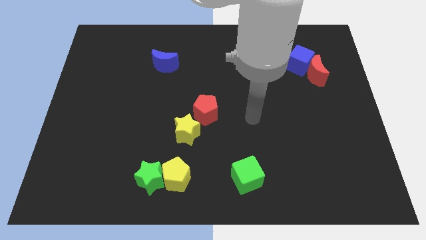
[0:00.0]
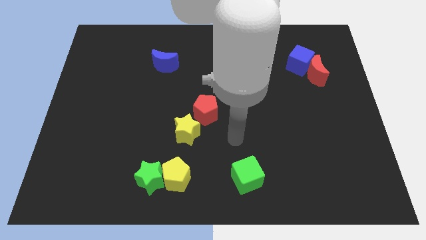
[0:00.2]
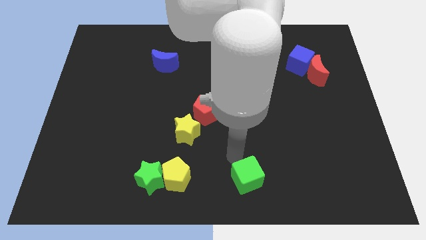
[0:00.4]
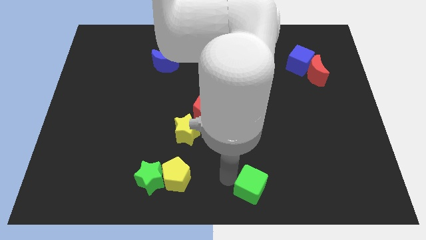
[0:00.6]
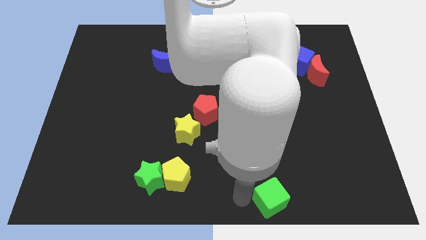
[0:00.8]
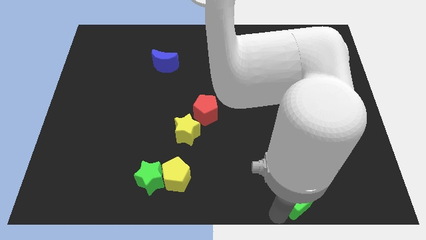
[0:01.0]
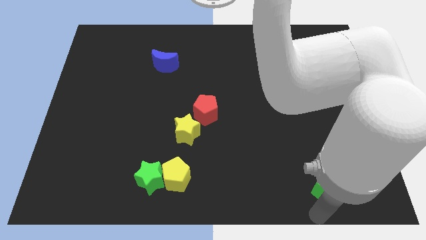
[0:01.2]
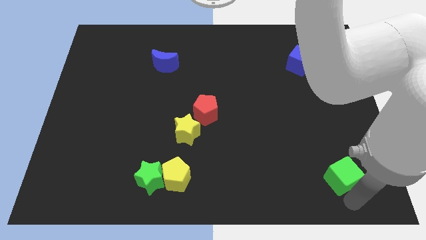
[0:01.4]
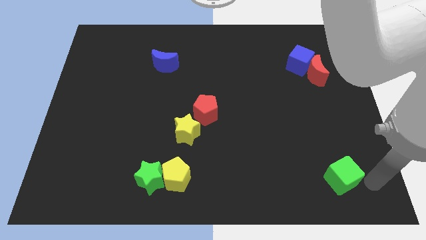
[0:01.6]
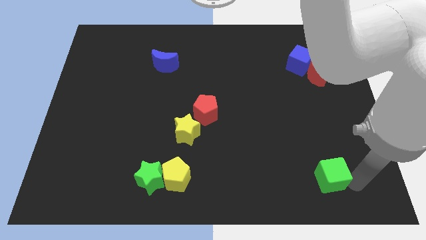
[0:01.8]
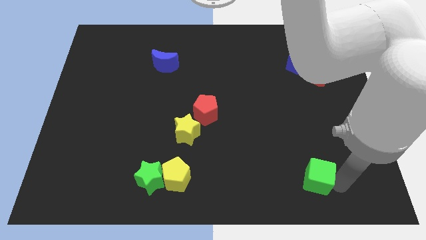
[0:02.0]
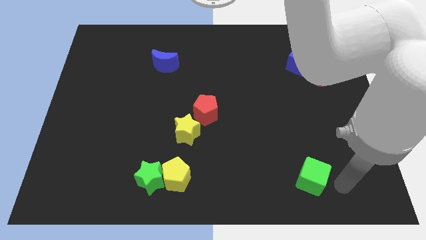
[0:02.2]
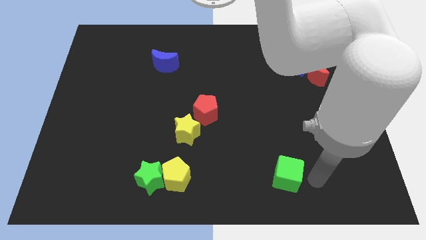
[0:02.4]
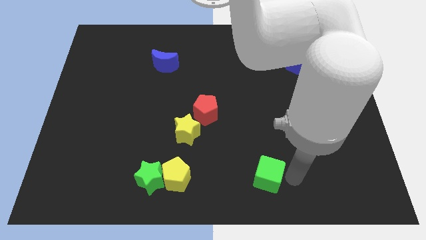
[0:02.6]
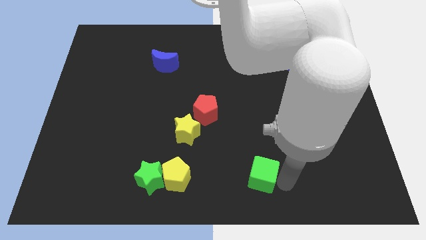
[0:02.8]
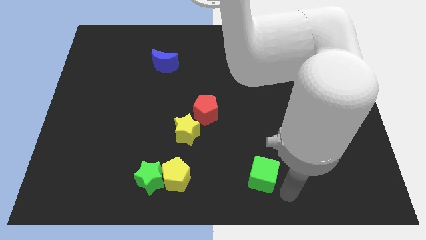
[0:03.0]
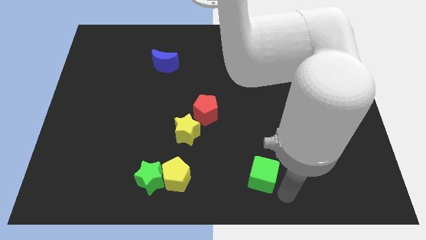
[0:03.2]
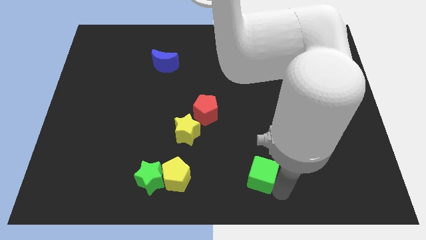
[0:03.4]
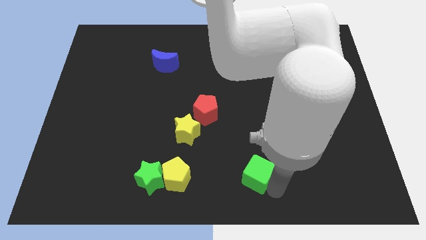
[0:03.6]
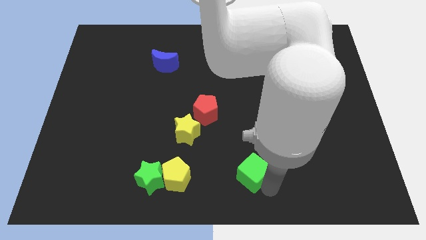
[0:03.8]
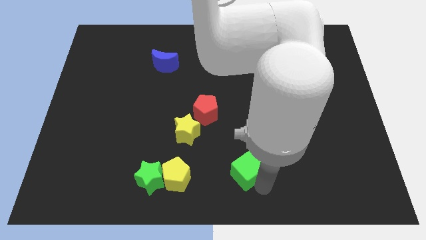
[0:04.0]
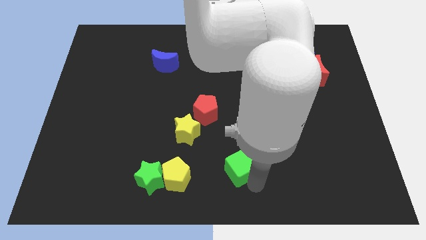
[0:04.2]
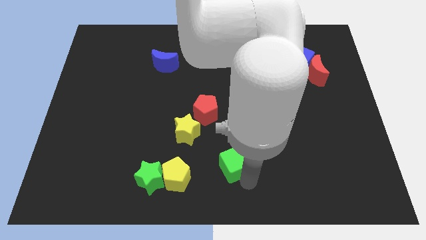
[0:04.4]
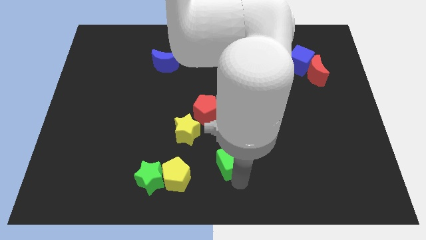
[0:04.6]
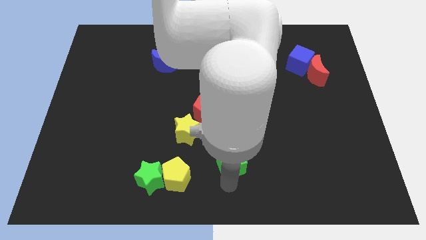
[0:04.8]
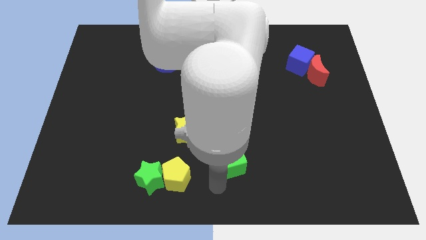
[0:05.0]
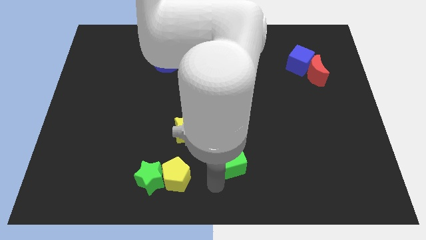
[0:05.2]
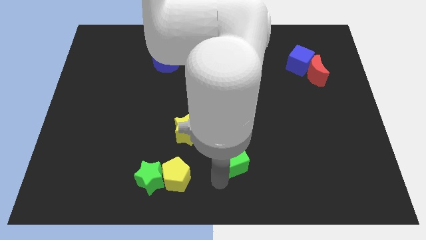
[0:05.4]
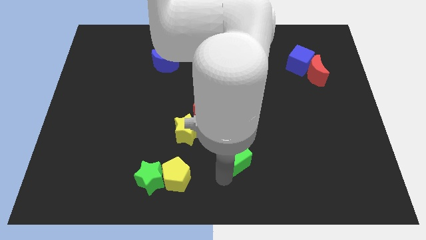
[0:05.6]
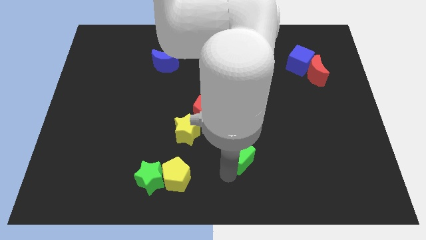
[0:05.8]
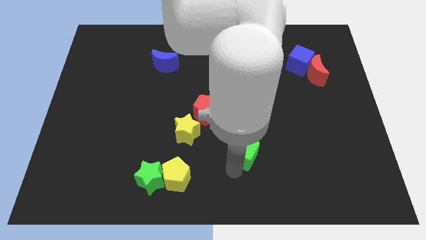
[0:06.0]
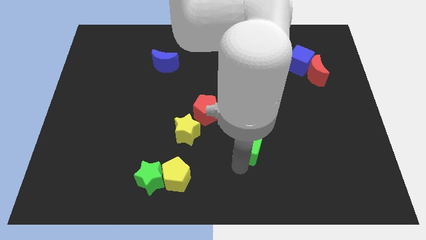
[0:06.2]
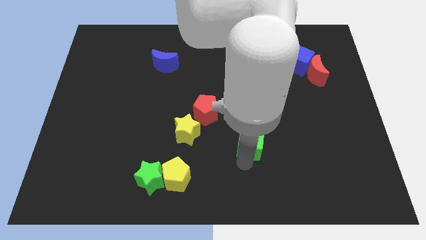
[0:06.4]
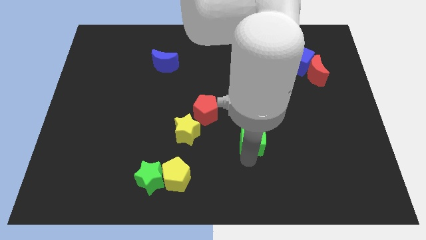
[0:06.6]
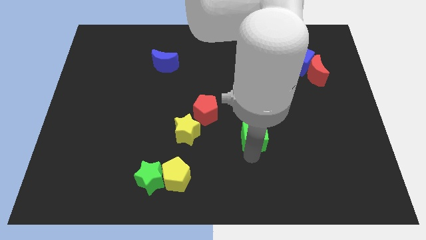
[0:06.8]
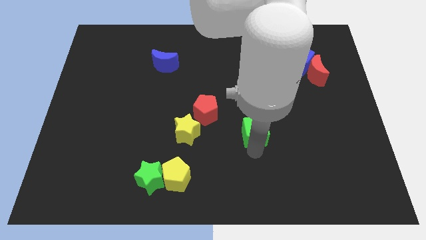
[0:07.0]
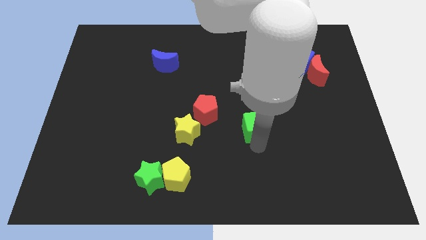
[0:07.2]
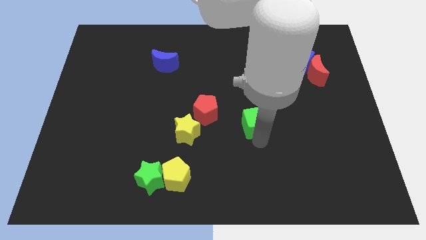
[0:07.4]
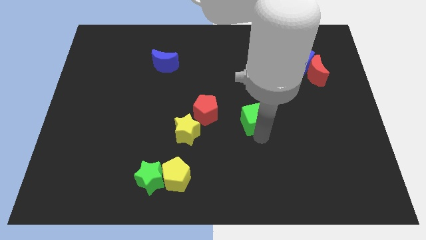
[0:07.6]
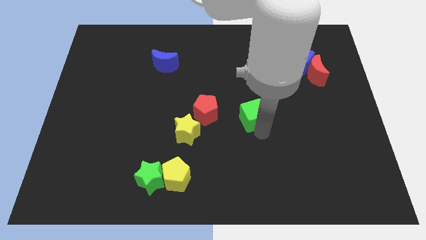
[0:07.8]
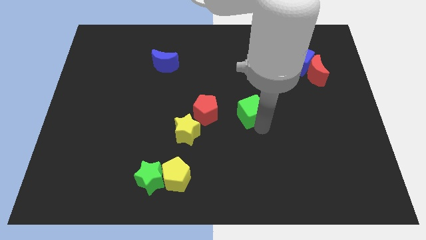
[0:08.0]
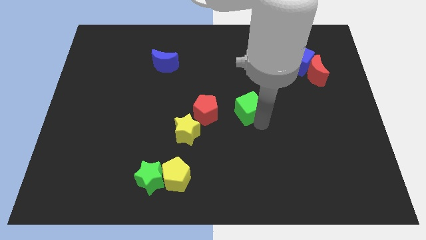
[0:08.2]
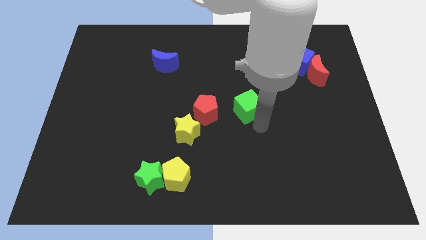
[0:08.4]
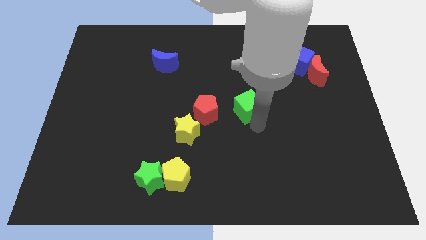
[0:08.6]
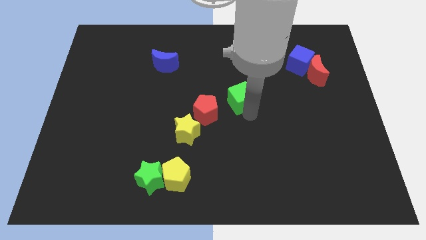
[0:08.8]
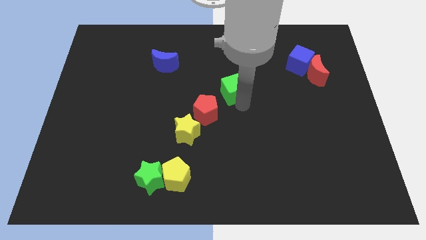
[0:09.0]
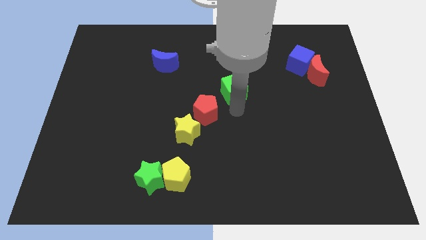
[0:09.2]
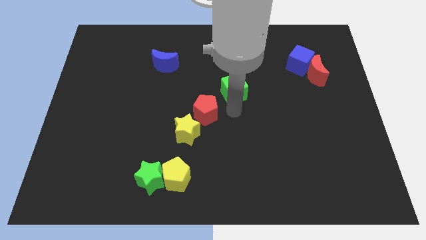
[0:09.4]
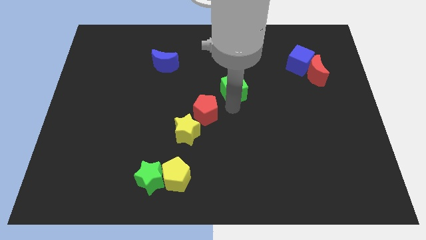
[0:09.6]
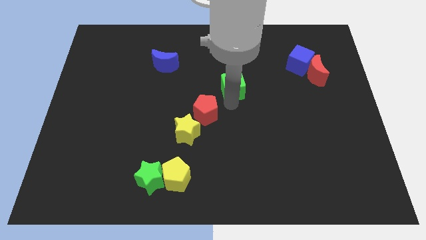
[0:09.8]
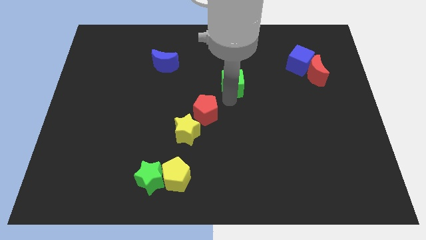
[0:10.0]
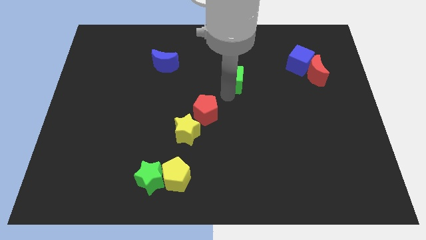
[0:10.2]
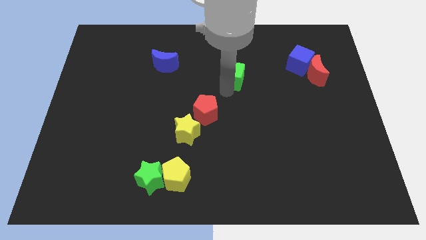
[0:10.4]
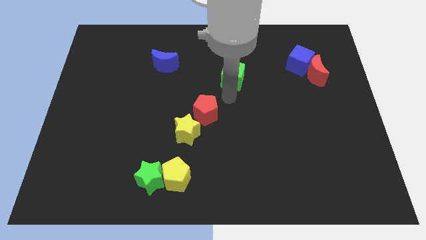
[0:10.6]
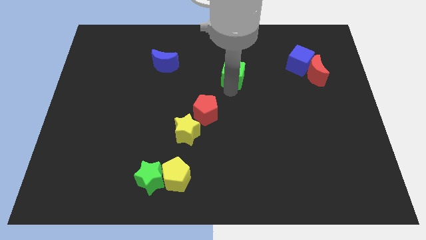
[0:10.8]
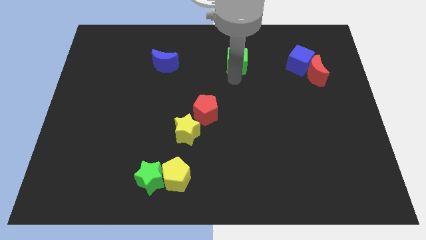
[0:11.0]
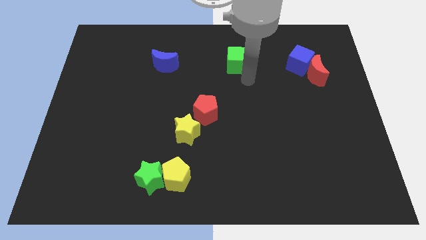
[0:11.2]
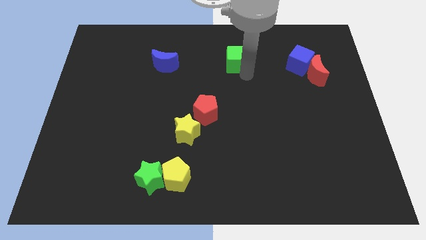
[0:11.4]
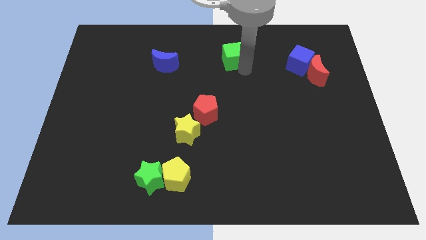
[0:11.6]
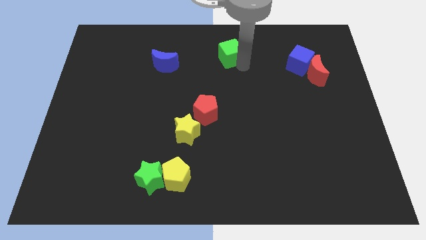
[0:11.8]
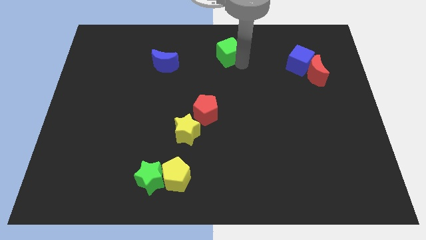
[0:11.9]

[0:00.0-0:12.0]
push the green cube to the towards your base
